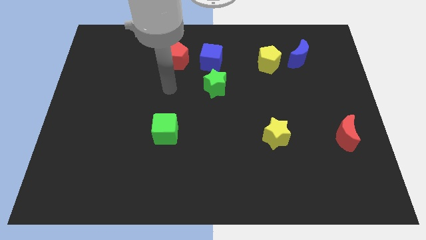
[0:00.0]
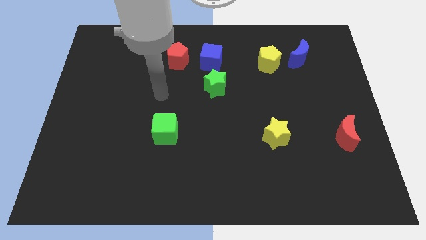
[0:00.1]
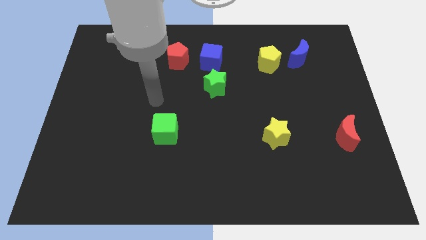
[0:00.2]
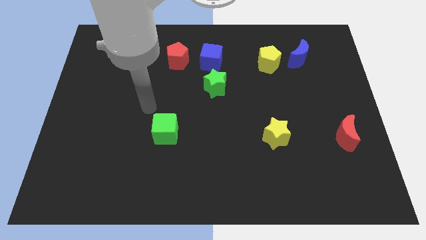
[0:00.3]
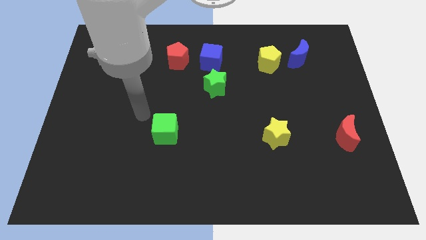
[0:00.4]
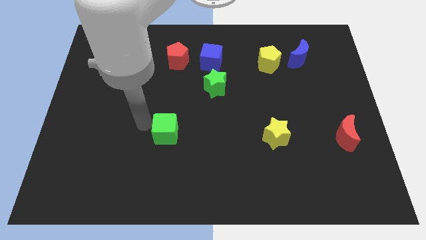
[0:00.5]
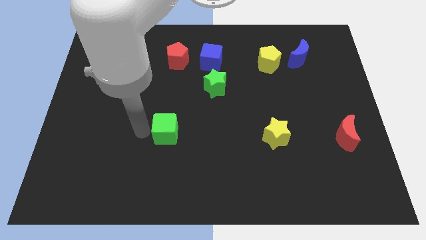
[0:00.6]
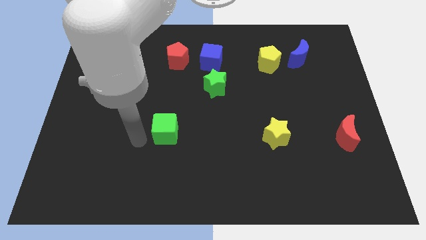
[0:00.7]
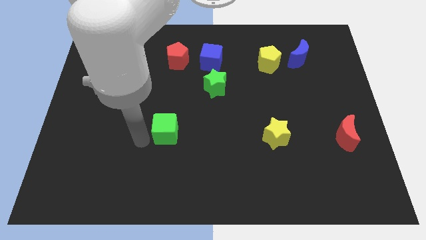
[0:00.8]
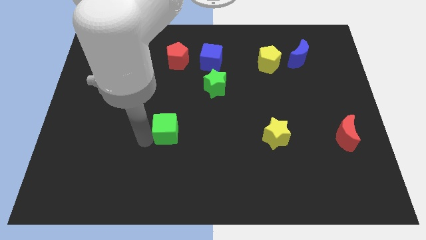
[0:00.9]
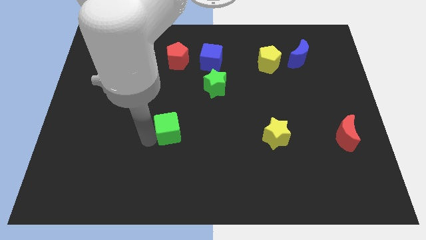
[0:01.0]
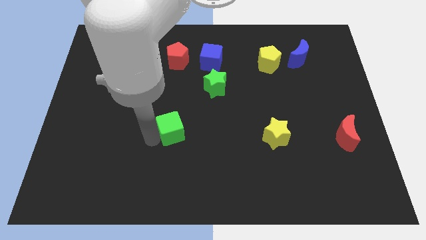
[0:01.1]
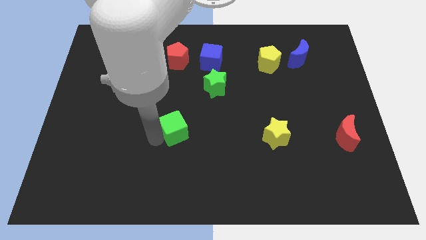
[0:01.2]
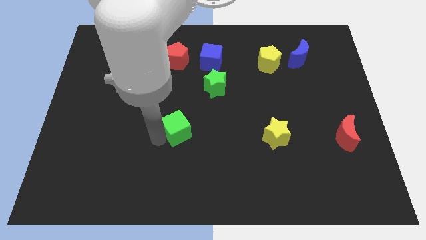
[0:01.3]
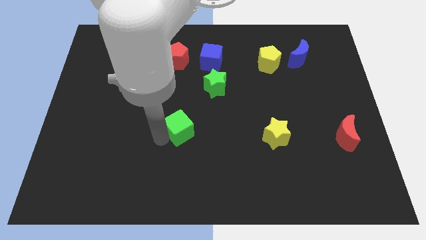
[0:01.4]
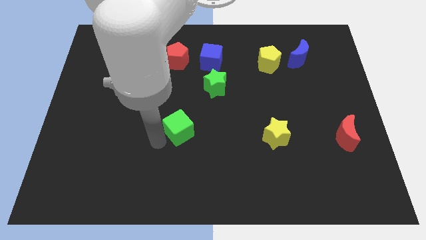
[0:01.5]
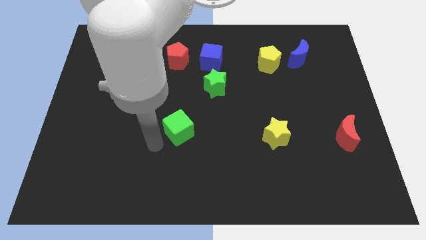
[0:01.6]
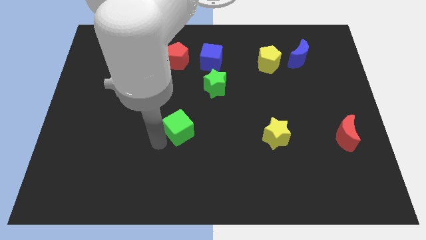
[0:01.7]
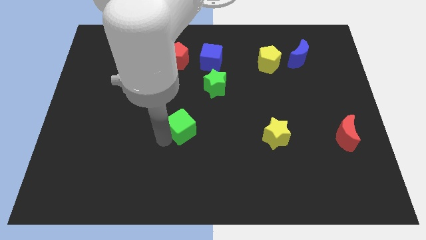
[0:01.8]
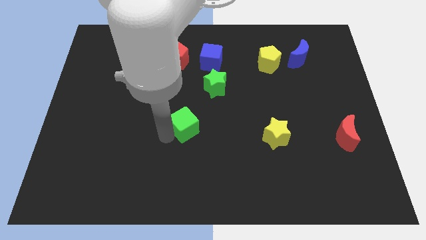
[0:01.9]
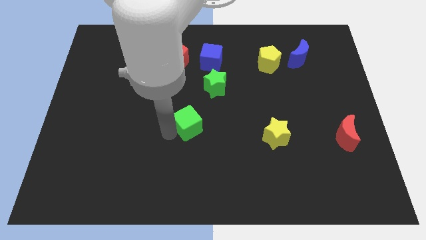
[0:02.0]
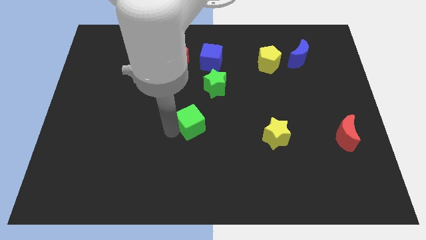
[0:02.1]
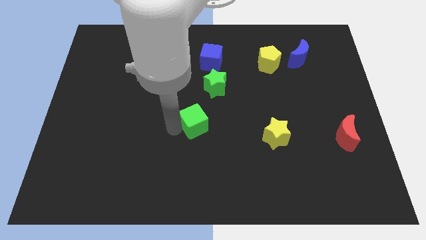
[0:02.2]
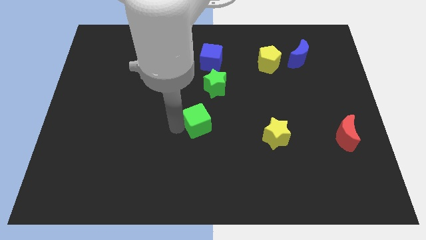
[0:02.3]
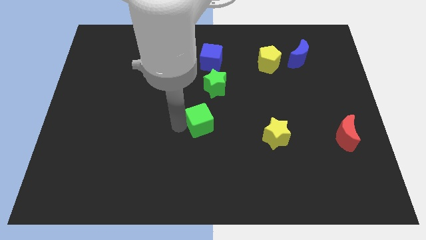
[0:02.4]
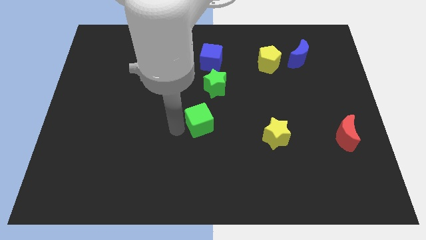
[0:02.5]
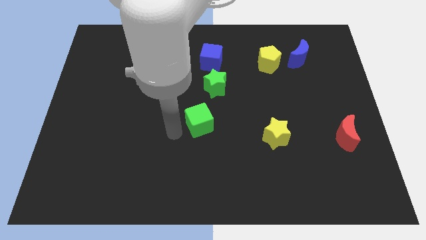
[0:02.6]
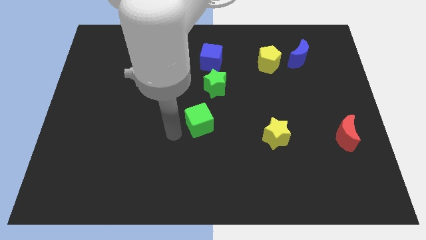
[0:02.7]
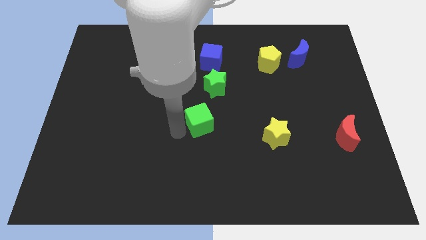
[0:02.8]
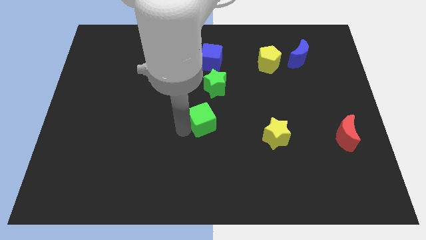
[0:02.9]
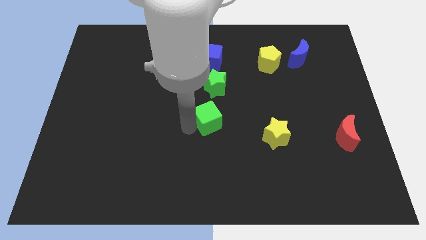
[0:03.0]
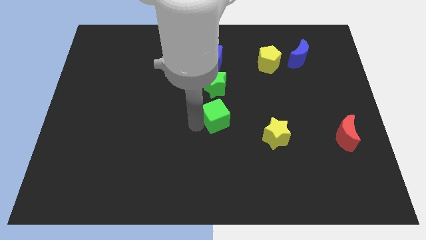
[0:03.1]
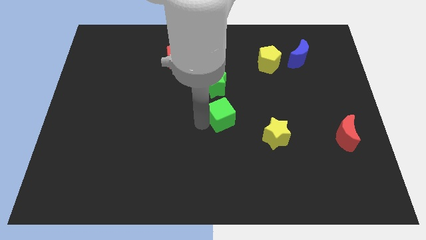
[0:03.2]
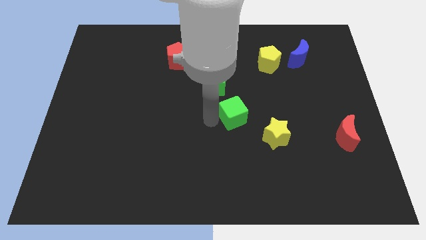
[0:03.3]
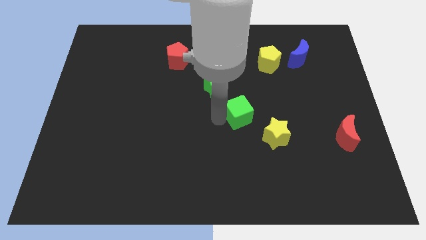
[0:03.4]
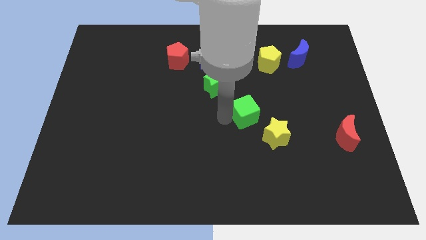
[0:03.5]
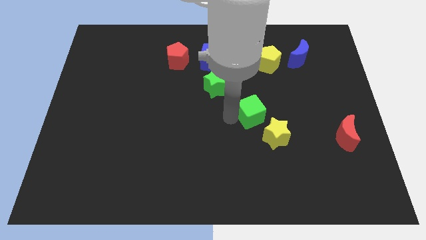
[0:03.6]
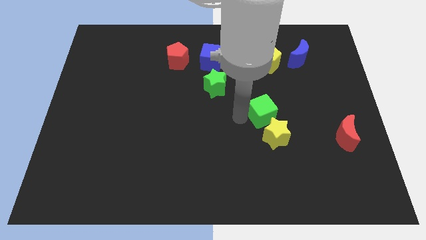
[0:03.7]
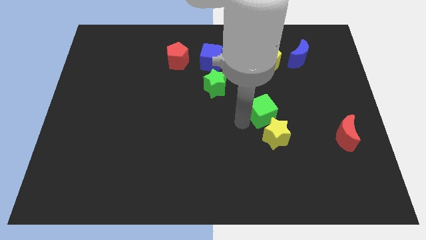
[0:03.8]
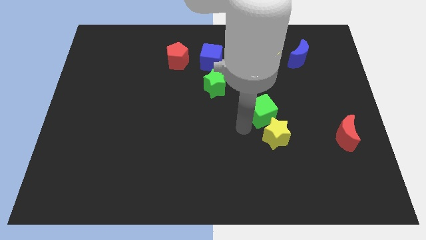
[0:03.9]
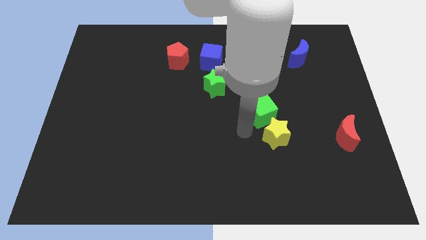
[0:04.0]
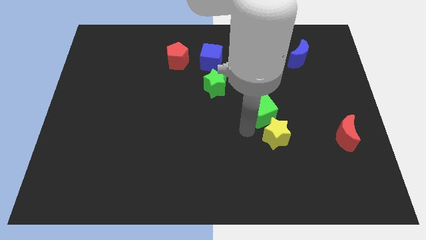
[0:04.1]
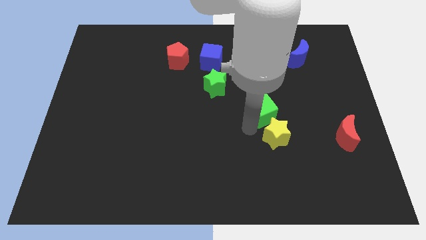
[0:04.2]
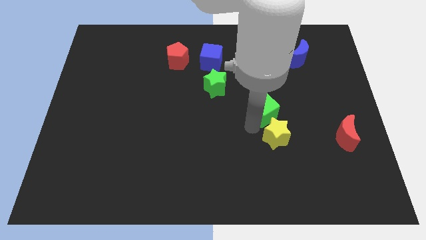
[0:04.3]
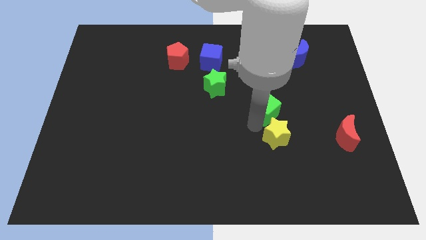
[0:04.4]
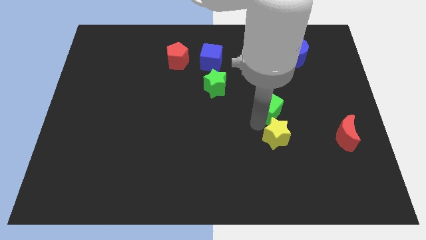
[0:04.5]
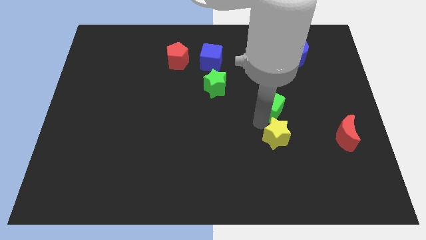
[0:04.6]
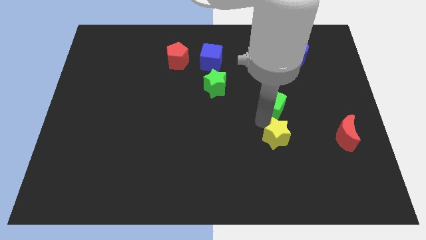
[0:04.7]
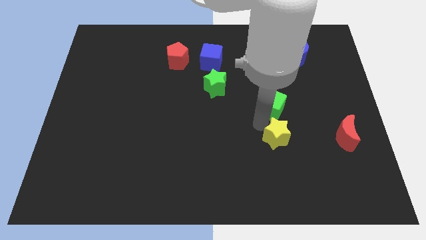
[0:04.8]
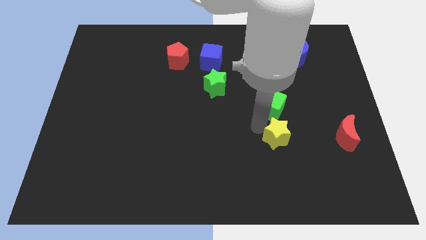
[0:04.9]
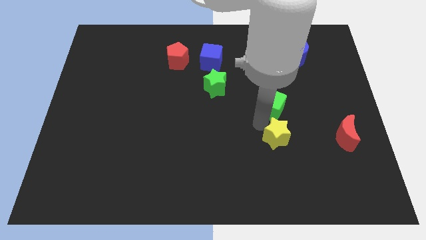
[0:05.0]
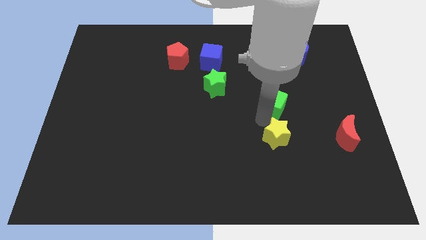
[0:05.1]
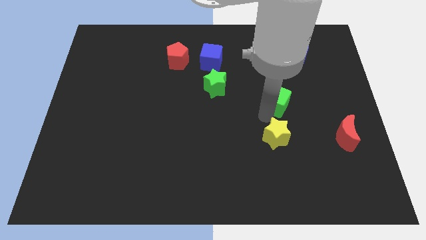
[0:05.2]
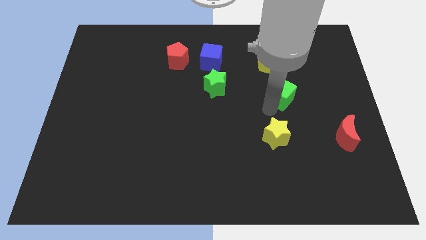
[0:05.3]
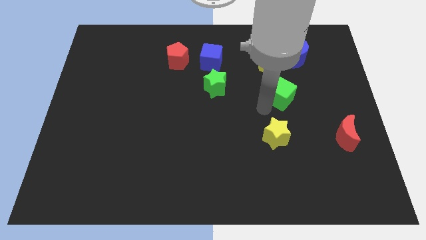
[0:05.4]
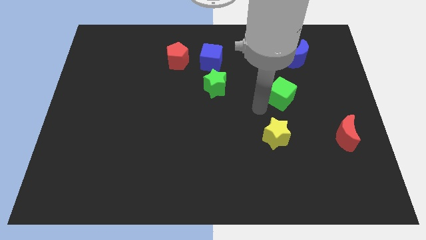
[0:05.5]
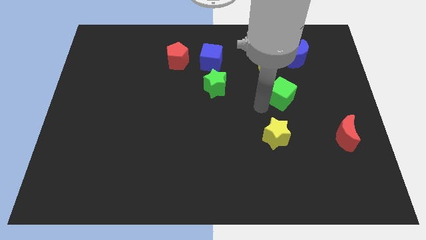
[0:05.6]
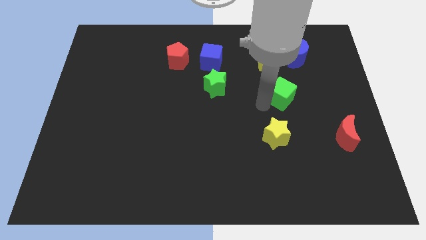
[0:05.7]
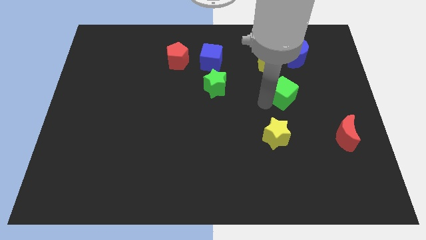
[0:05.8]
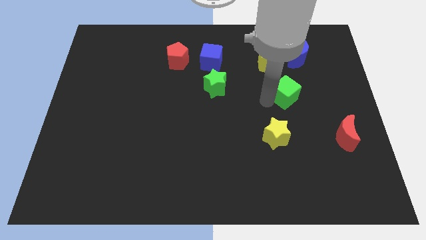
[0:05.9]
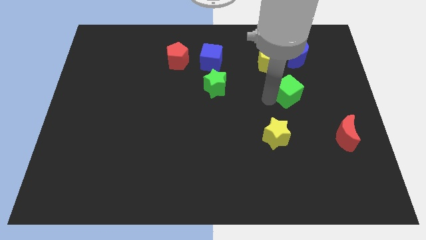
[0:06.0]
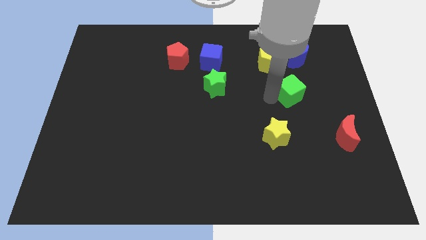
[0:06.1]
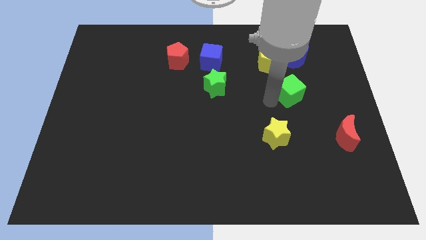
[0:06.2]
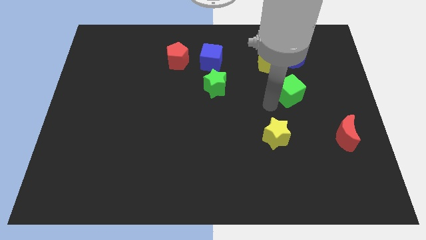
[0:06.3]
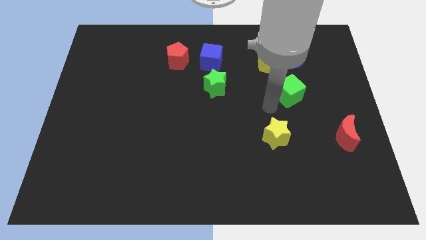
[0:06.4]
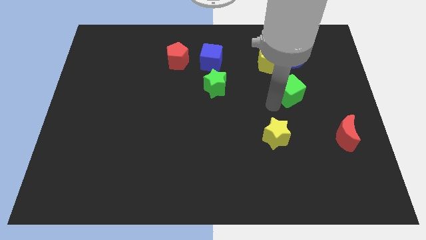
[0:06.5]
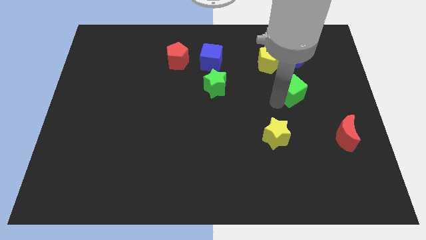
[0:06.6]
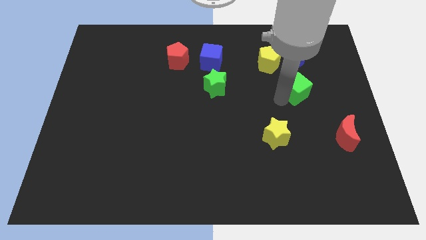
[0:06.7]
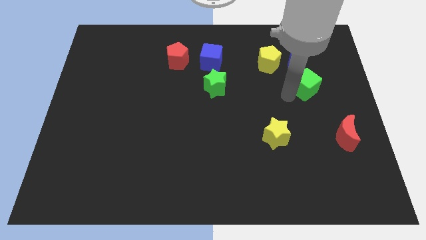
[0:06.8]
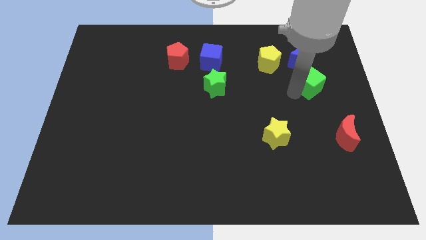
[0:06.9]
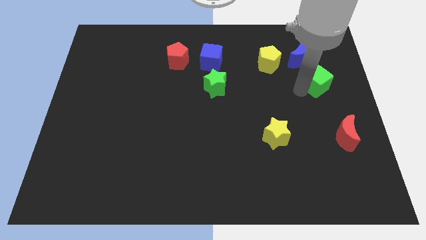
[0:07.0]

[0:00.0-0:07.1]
slide the green cube diagonally down and to the right of the blue moon
